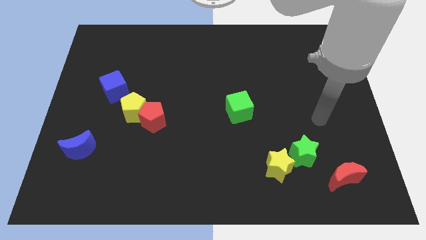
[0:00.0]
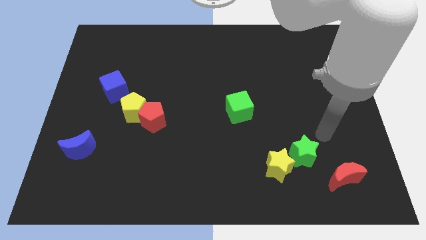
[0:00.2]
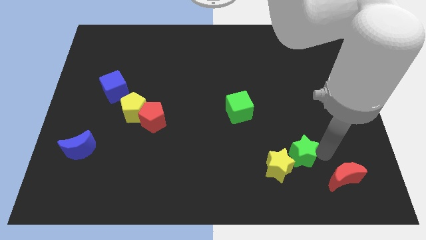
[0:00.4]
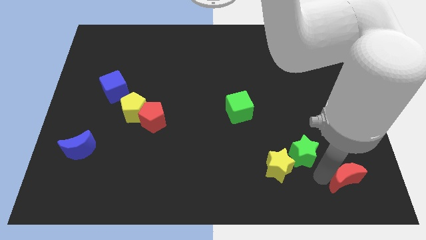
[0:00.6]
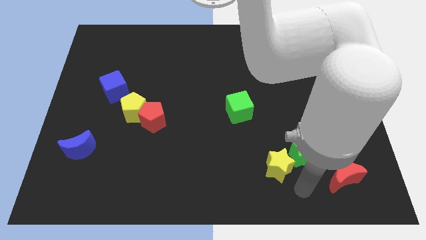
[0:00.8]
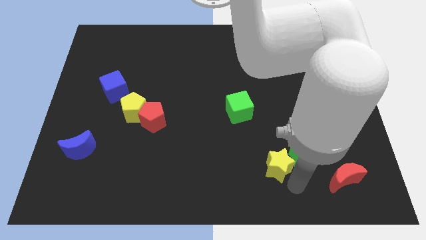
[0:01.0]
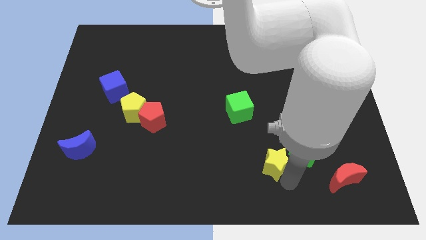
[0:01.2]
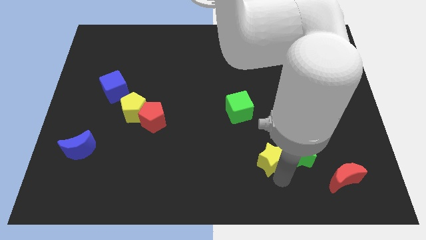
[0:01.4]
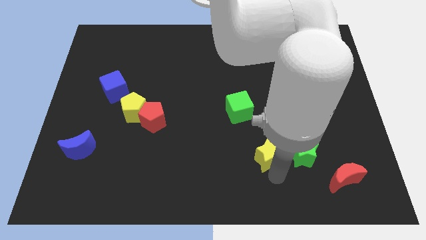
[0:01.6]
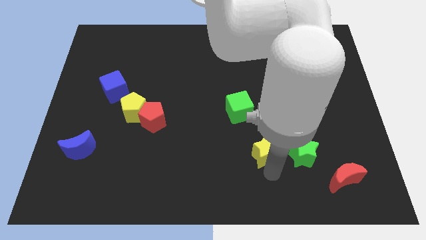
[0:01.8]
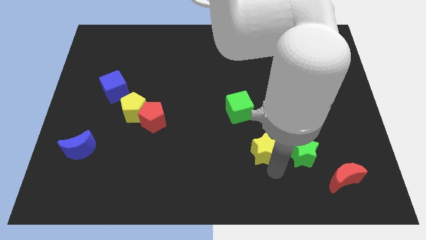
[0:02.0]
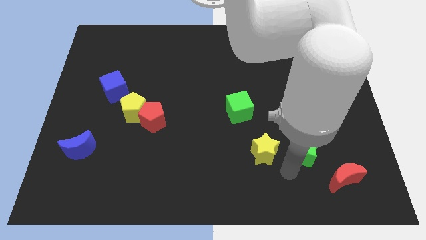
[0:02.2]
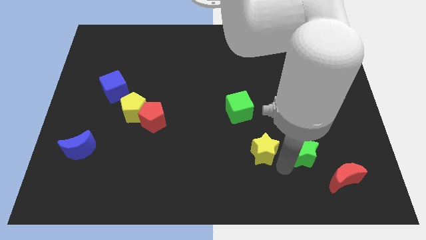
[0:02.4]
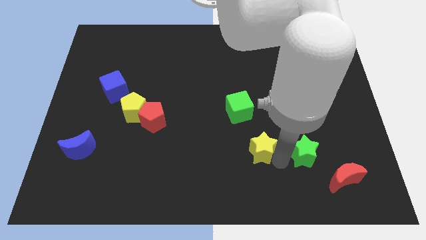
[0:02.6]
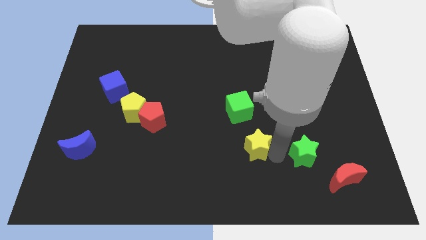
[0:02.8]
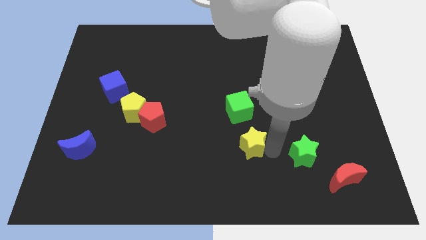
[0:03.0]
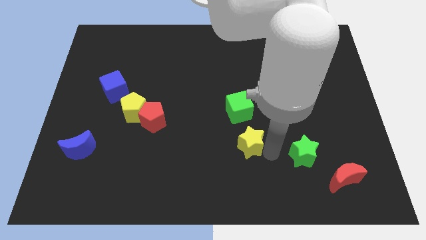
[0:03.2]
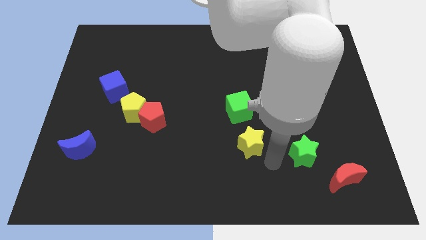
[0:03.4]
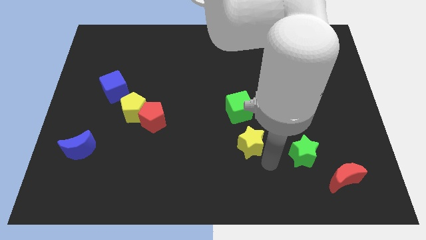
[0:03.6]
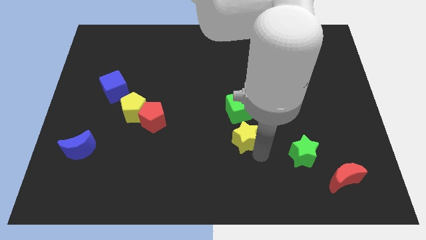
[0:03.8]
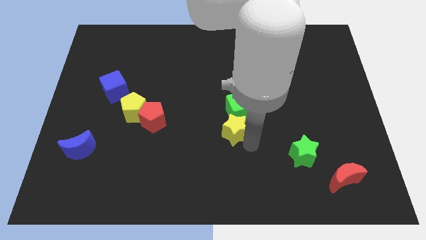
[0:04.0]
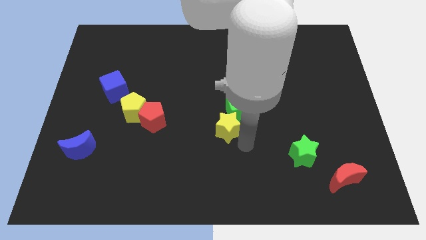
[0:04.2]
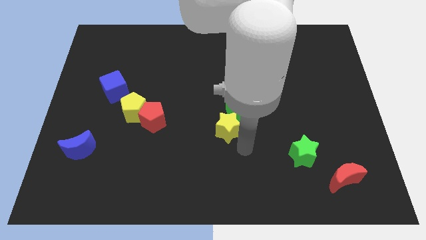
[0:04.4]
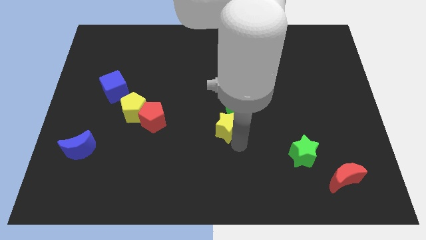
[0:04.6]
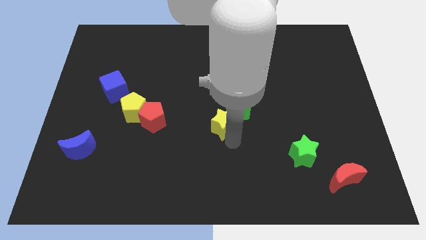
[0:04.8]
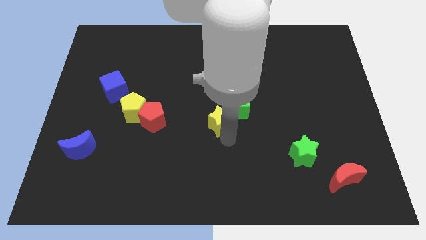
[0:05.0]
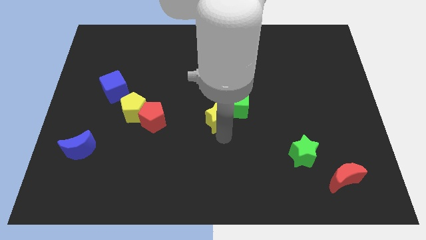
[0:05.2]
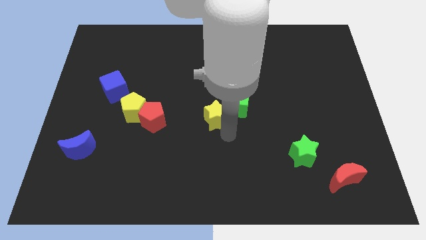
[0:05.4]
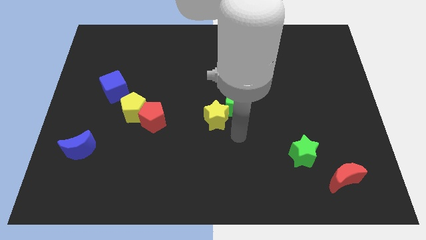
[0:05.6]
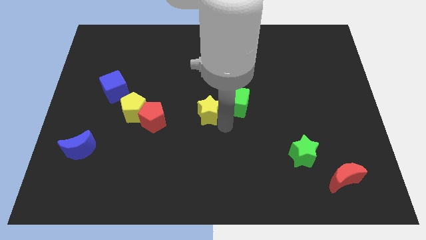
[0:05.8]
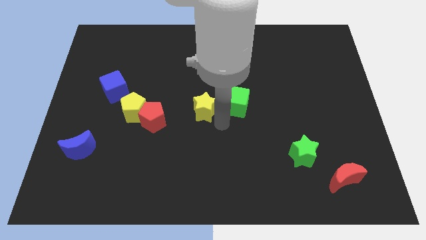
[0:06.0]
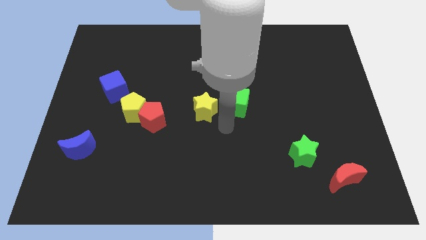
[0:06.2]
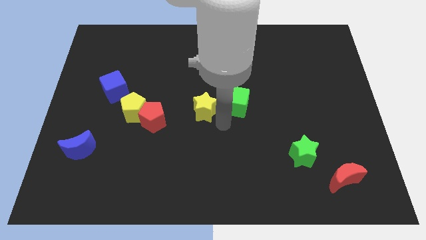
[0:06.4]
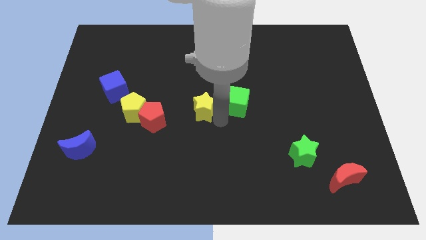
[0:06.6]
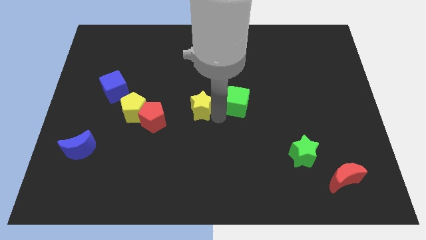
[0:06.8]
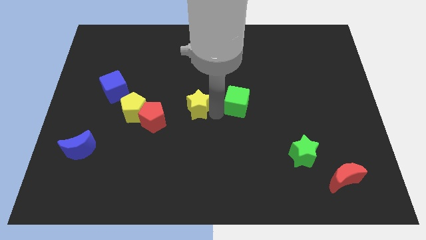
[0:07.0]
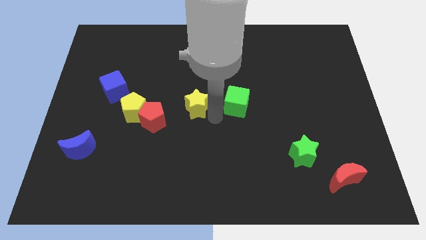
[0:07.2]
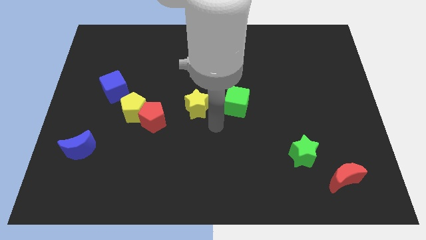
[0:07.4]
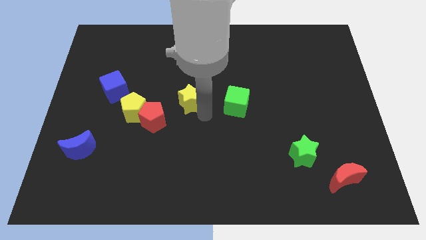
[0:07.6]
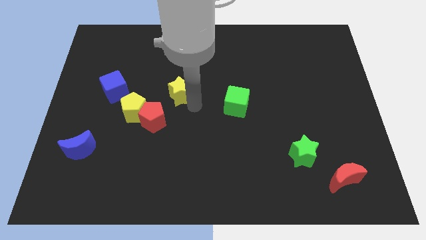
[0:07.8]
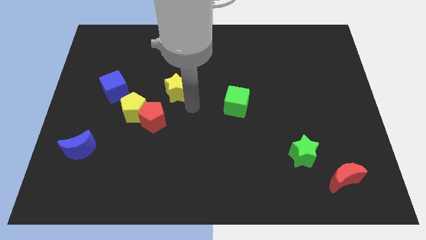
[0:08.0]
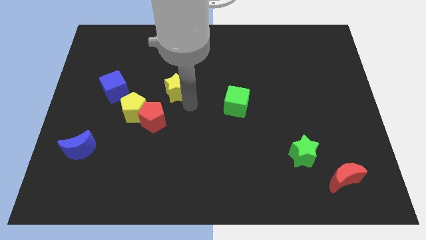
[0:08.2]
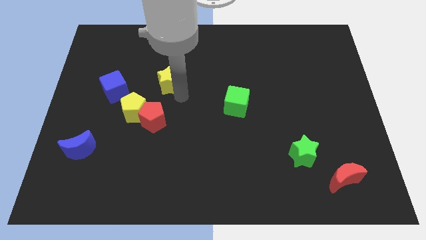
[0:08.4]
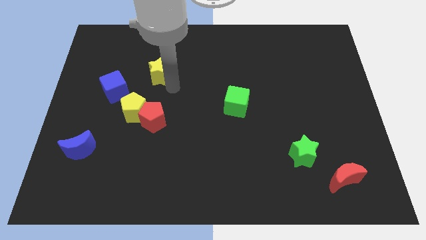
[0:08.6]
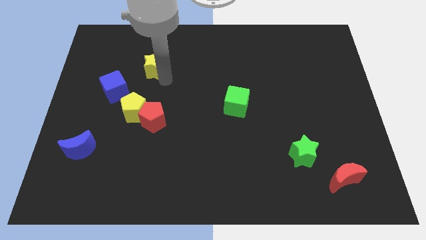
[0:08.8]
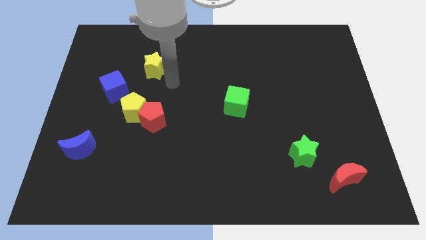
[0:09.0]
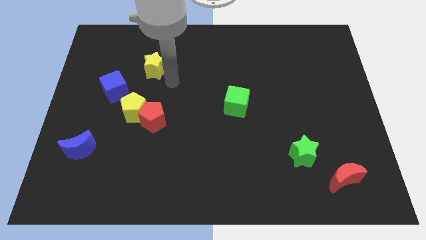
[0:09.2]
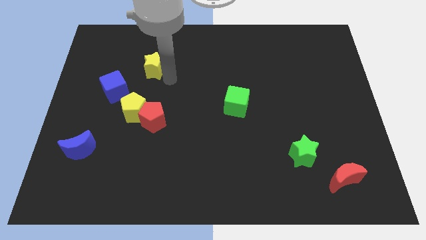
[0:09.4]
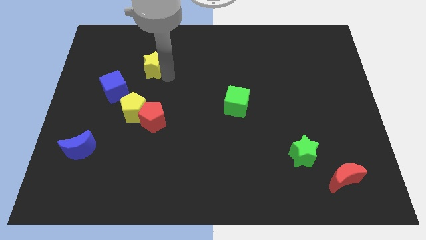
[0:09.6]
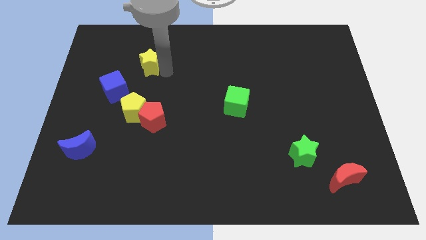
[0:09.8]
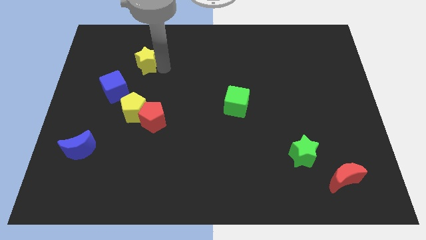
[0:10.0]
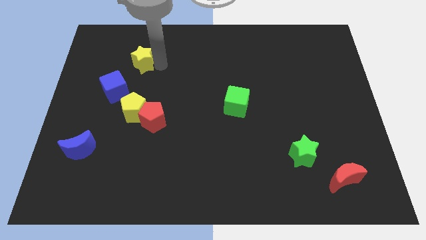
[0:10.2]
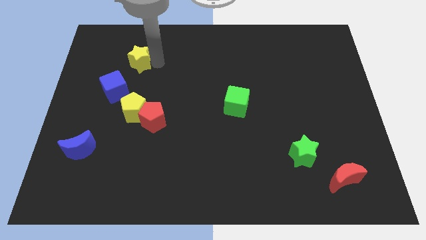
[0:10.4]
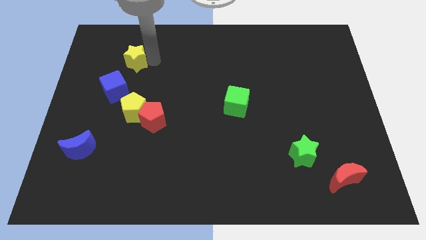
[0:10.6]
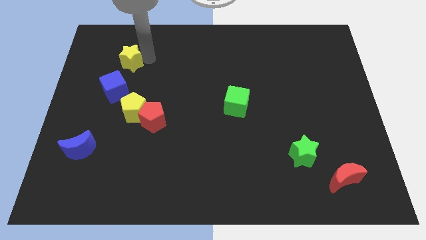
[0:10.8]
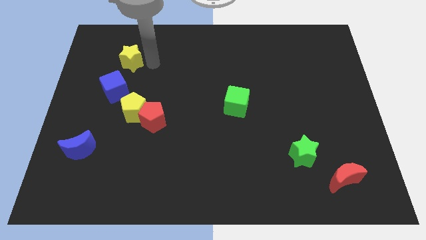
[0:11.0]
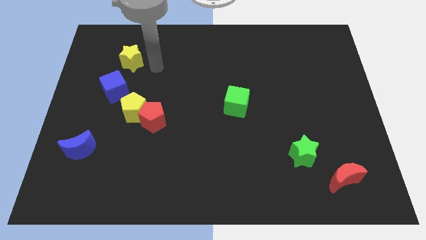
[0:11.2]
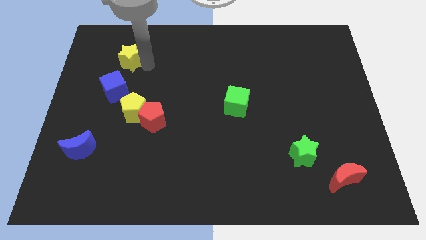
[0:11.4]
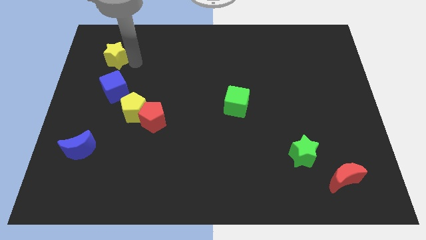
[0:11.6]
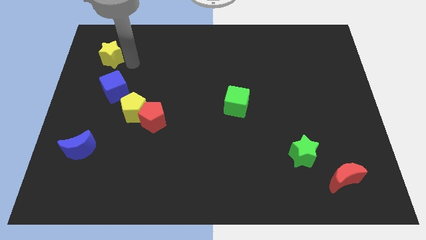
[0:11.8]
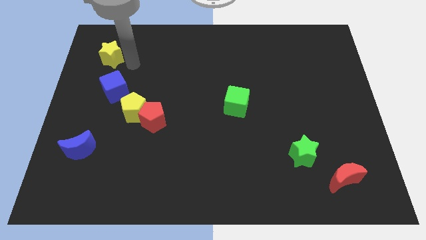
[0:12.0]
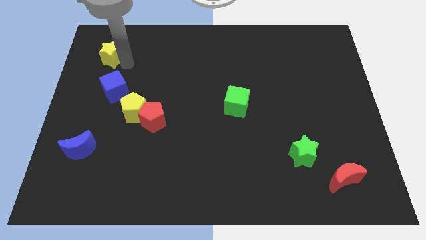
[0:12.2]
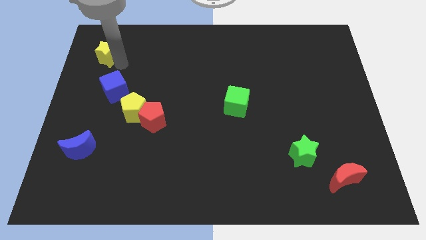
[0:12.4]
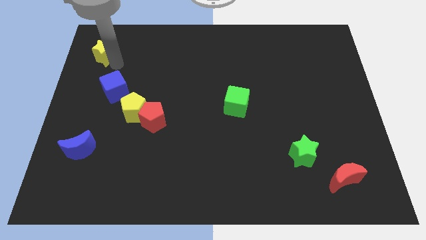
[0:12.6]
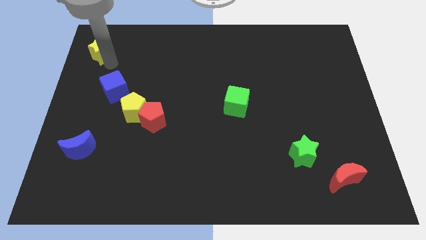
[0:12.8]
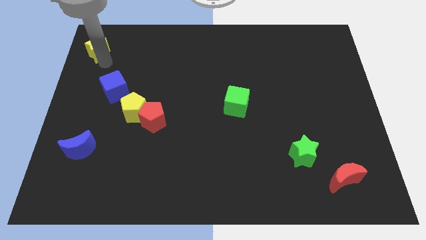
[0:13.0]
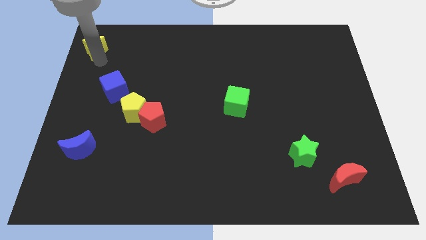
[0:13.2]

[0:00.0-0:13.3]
move the yellow star to the top left corner
